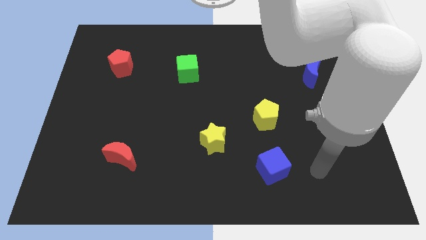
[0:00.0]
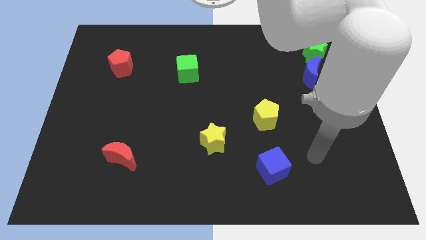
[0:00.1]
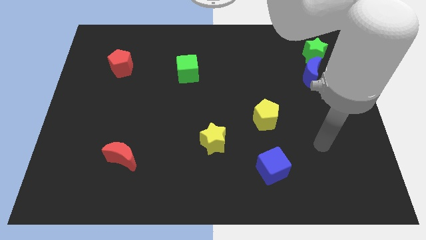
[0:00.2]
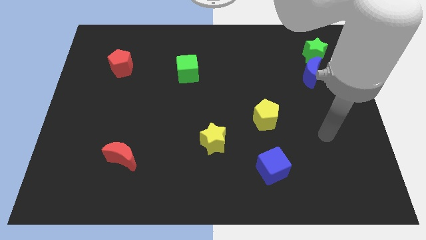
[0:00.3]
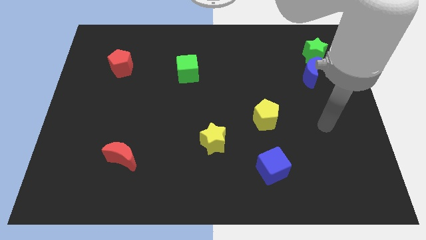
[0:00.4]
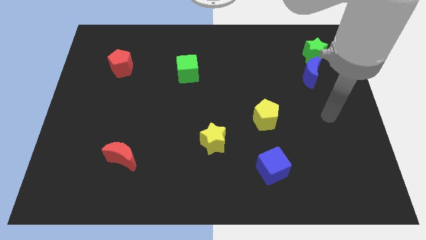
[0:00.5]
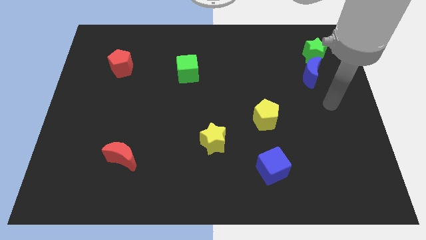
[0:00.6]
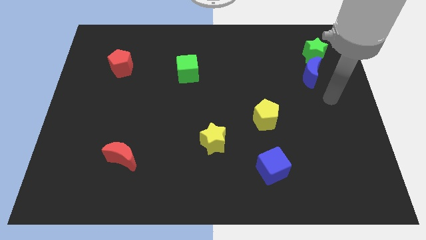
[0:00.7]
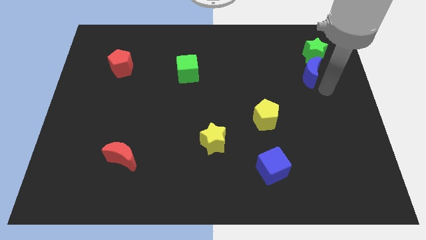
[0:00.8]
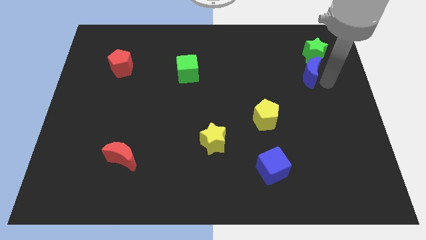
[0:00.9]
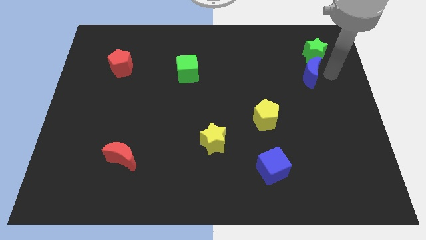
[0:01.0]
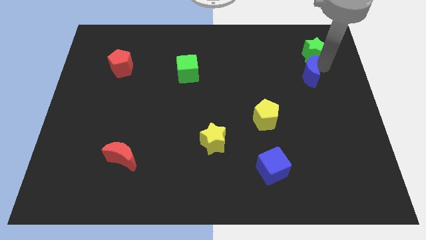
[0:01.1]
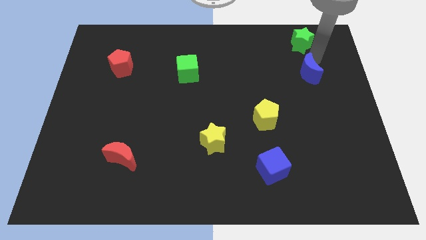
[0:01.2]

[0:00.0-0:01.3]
pull the blue moon apart from the green star

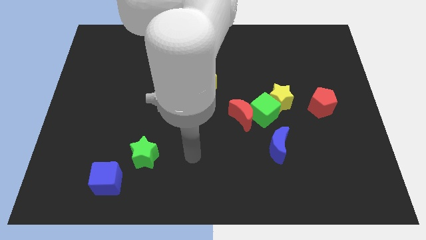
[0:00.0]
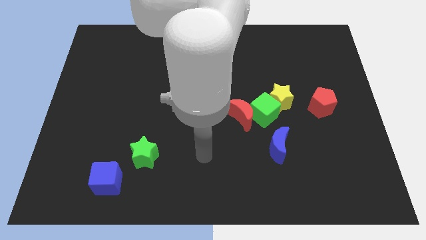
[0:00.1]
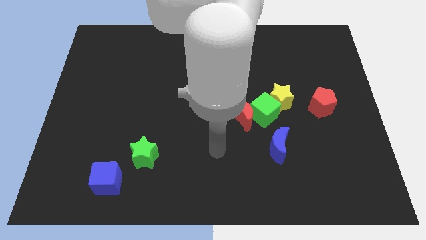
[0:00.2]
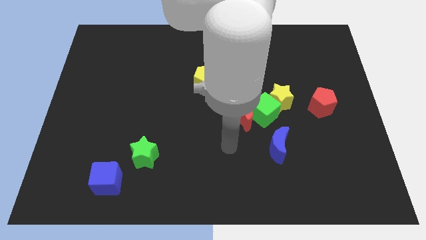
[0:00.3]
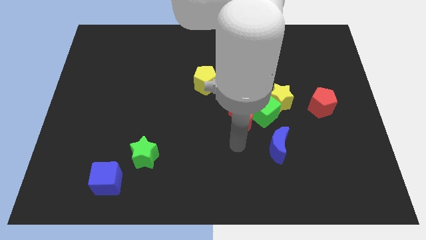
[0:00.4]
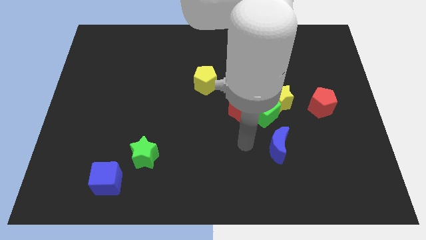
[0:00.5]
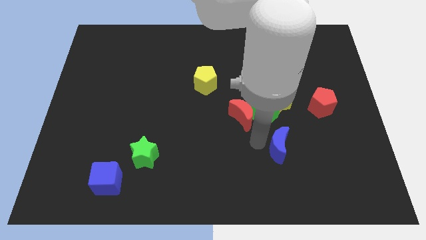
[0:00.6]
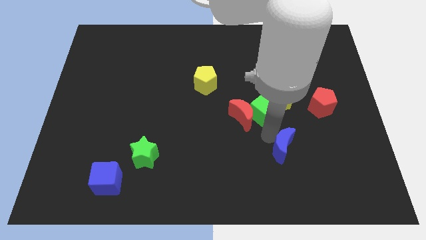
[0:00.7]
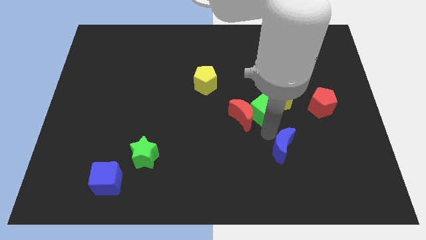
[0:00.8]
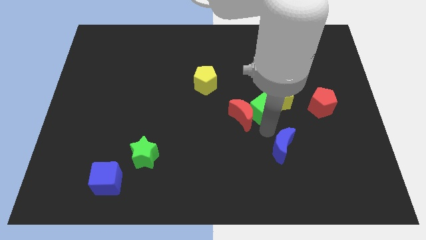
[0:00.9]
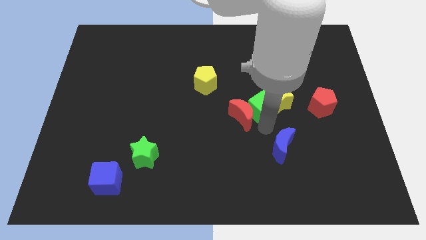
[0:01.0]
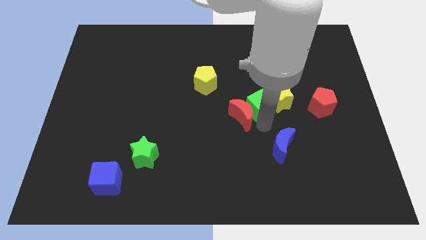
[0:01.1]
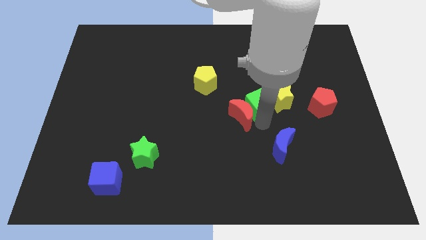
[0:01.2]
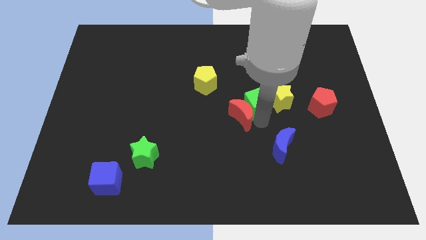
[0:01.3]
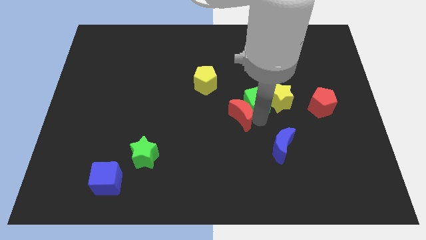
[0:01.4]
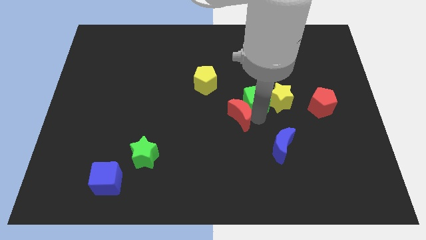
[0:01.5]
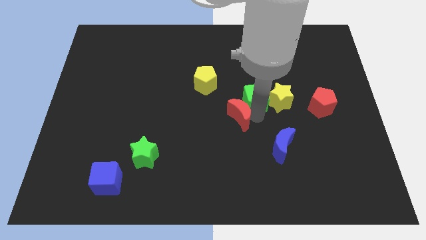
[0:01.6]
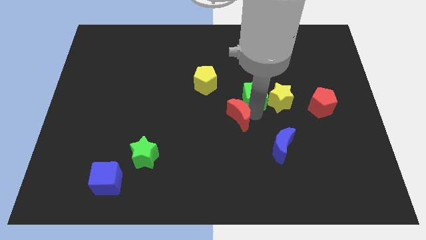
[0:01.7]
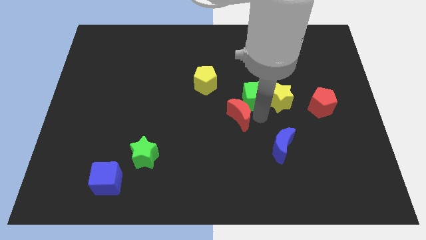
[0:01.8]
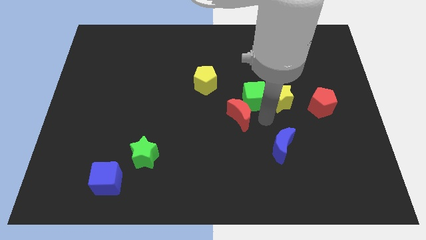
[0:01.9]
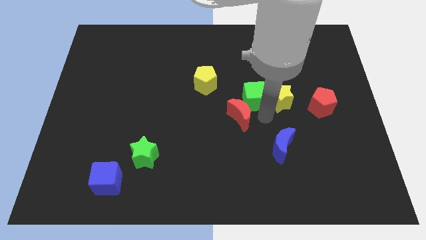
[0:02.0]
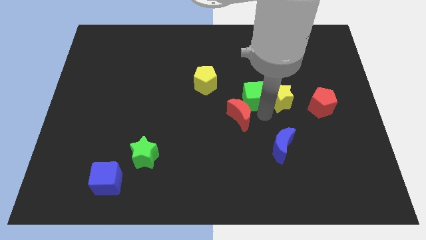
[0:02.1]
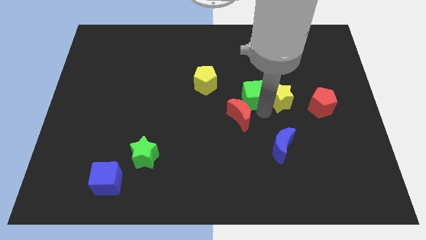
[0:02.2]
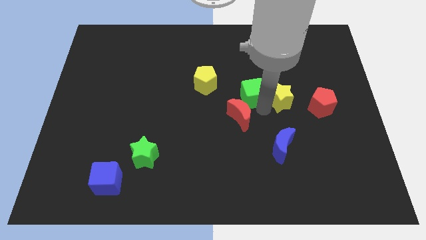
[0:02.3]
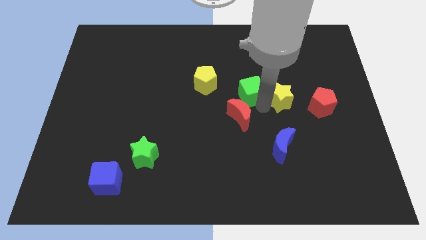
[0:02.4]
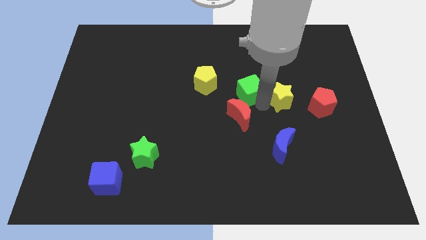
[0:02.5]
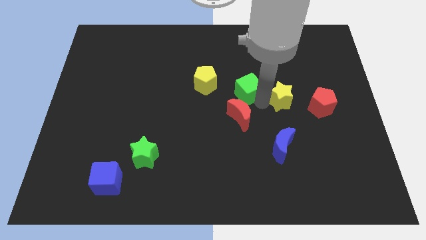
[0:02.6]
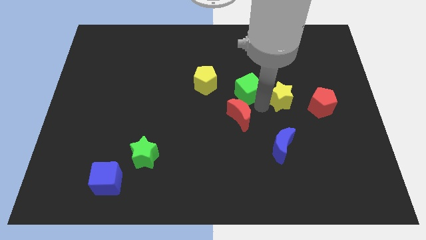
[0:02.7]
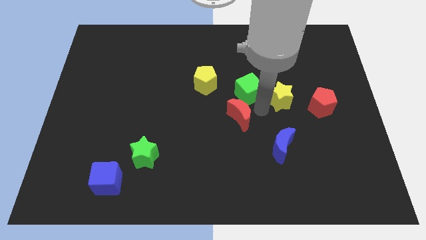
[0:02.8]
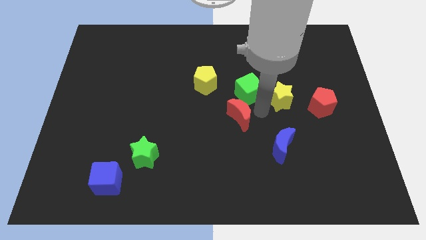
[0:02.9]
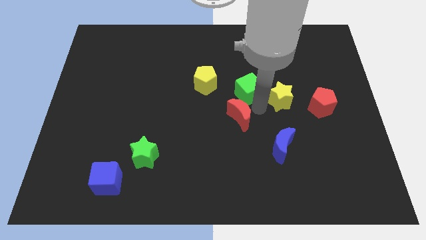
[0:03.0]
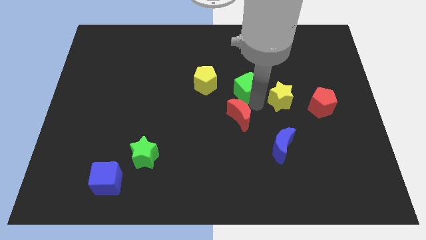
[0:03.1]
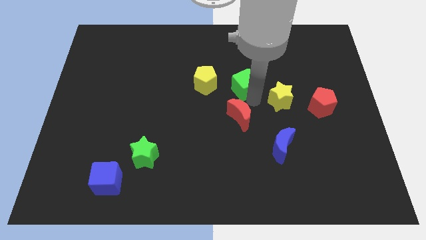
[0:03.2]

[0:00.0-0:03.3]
move the green cube away from the yellow star, red moon, and blue moon

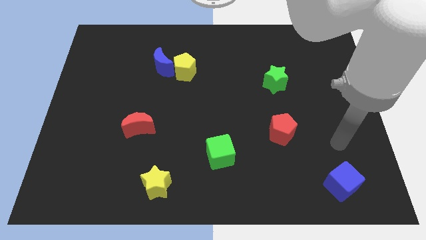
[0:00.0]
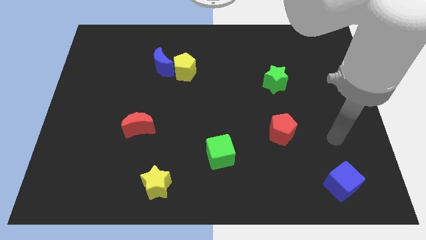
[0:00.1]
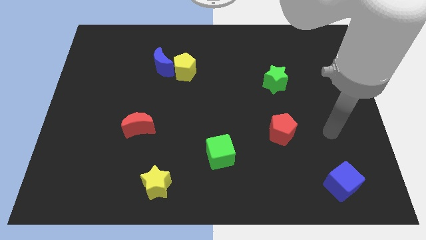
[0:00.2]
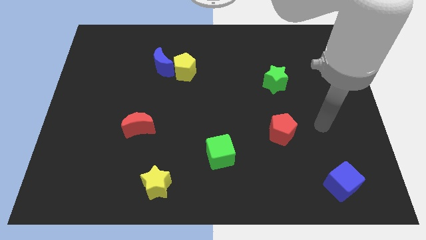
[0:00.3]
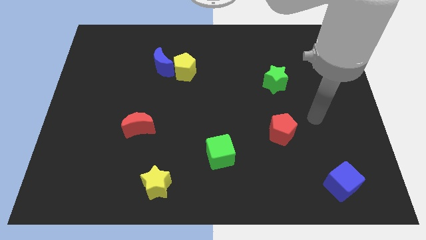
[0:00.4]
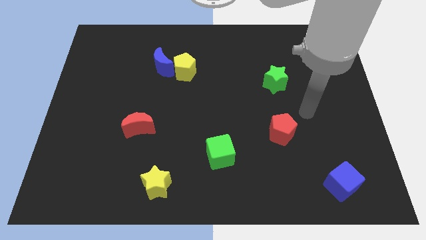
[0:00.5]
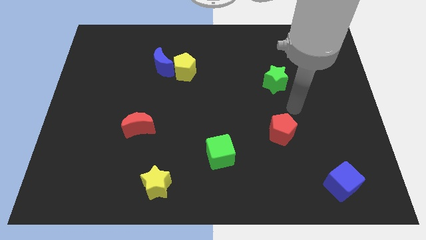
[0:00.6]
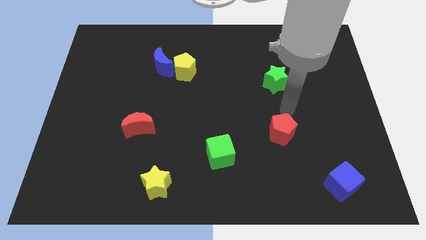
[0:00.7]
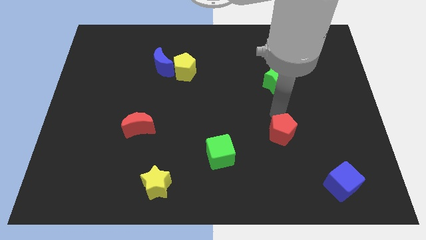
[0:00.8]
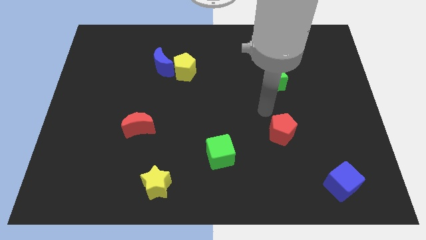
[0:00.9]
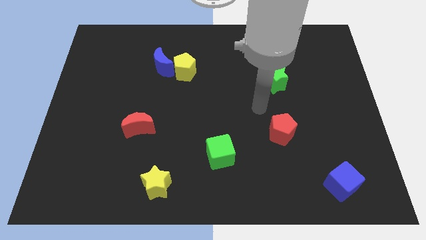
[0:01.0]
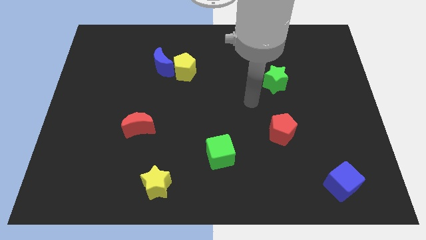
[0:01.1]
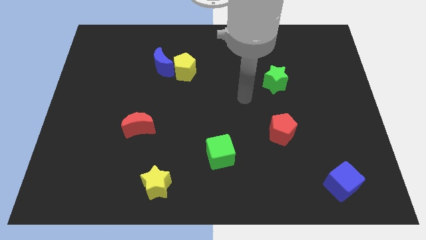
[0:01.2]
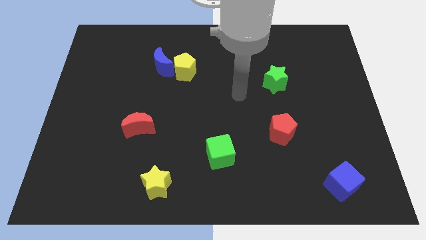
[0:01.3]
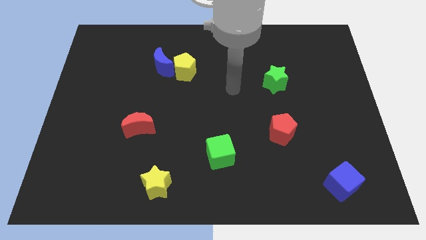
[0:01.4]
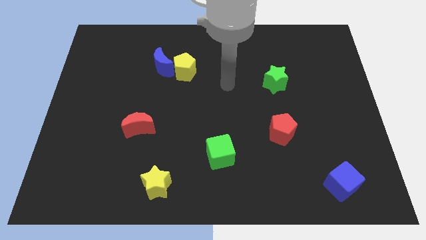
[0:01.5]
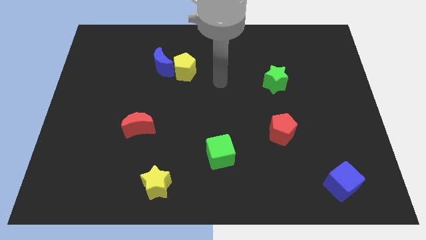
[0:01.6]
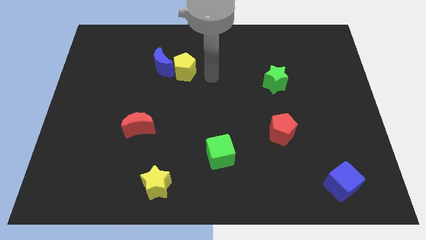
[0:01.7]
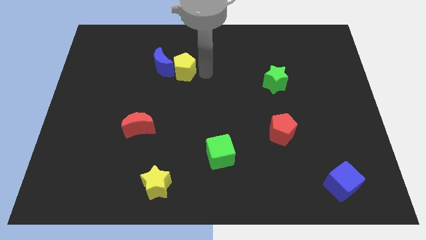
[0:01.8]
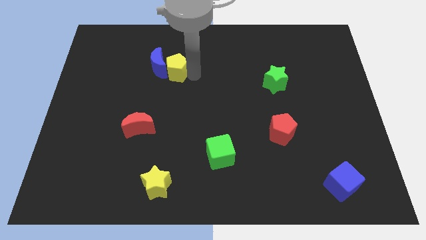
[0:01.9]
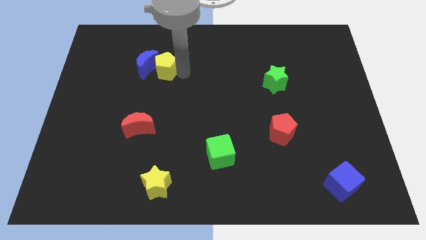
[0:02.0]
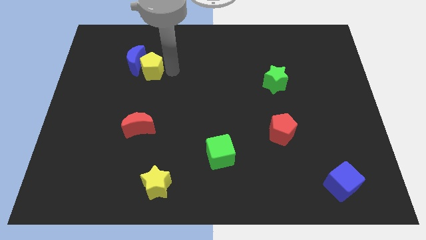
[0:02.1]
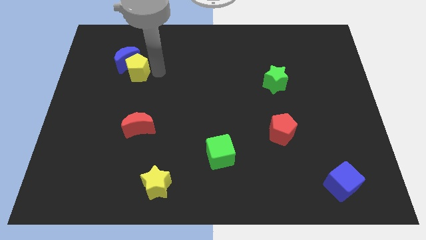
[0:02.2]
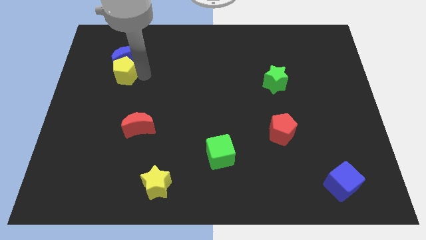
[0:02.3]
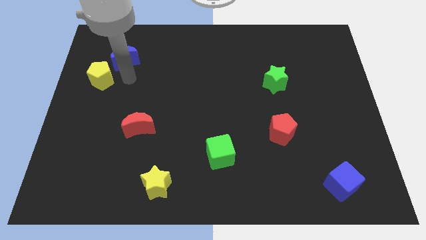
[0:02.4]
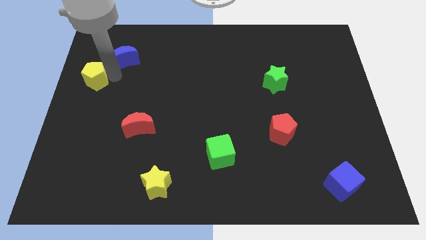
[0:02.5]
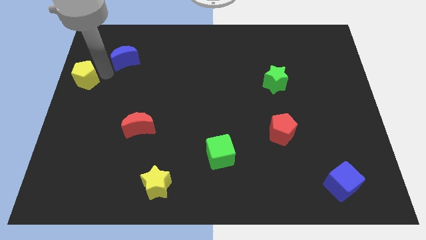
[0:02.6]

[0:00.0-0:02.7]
move the blue moon away from the yellow pentagon

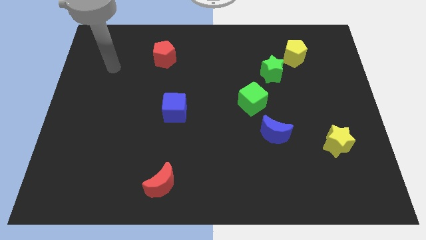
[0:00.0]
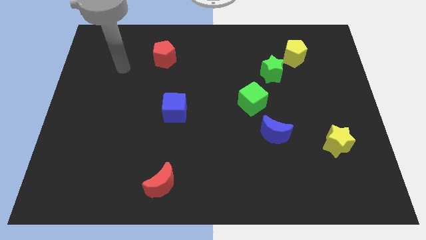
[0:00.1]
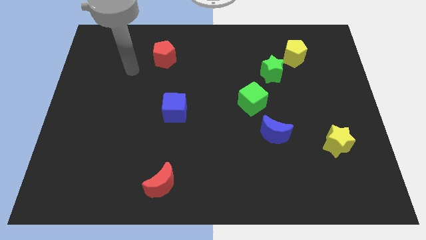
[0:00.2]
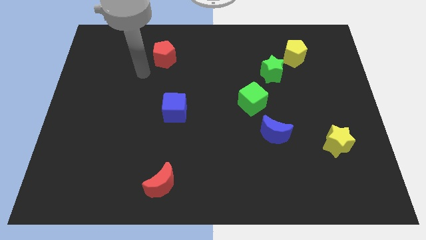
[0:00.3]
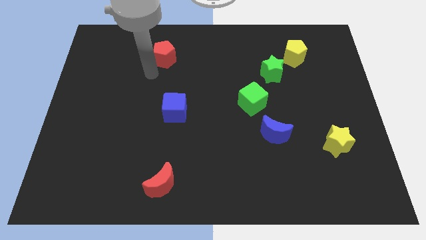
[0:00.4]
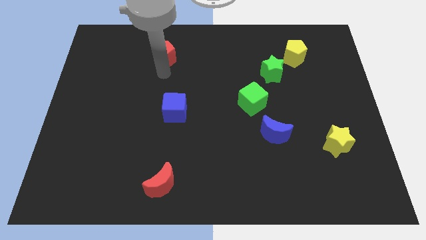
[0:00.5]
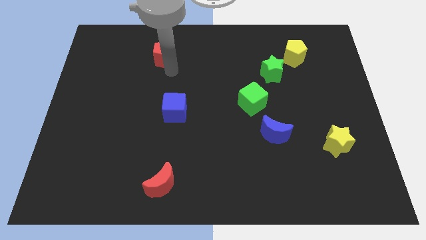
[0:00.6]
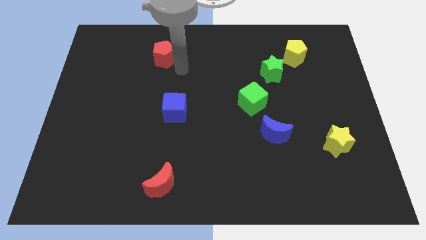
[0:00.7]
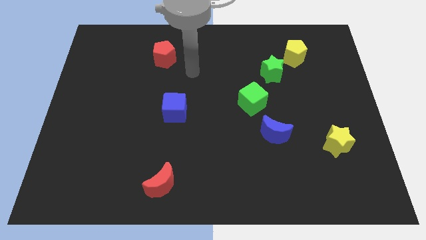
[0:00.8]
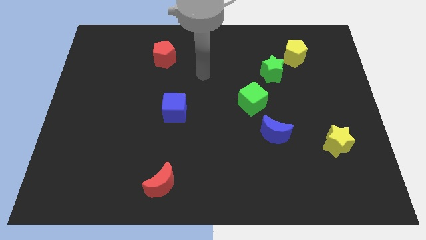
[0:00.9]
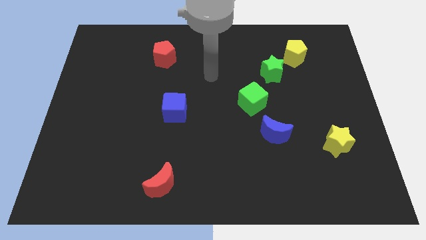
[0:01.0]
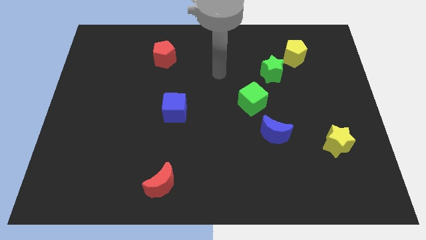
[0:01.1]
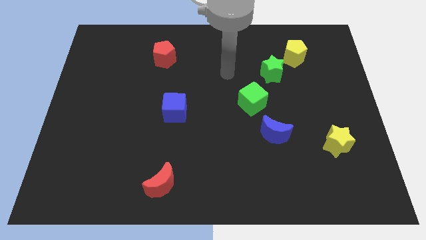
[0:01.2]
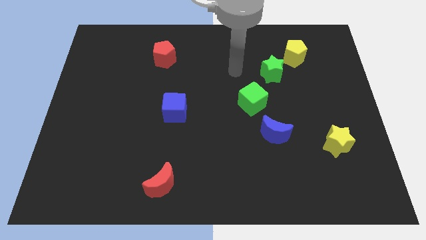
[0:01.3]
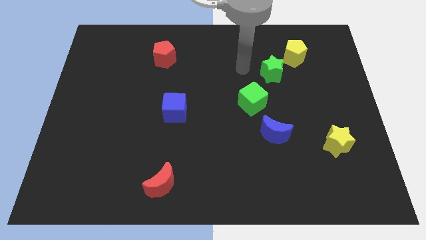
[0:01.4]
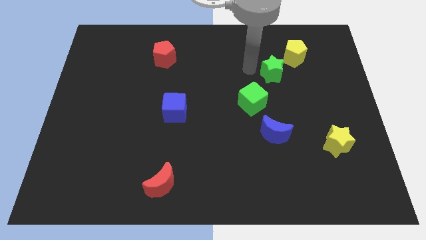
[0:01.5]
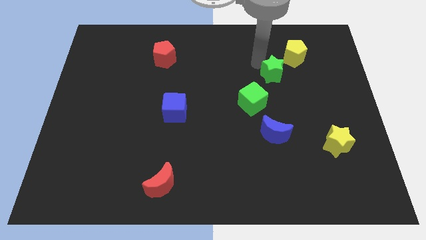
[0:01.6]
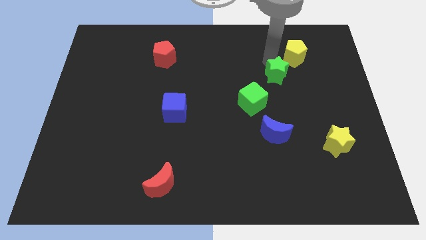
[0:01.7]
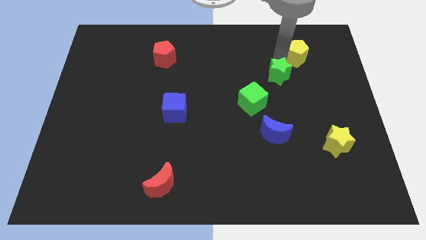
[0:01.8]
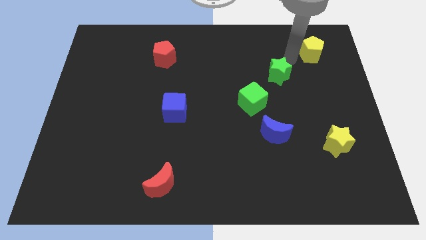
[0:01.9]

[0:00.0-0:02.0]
separate the green star from the yellow pentagon

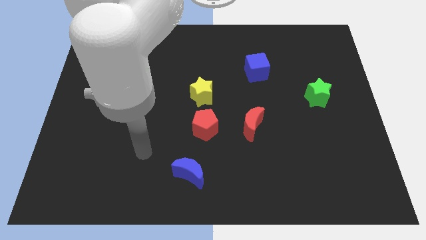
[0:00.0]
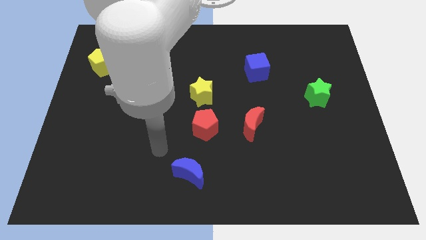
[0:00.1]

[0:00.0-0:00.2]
move the yellow star away from the red pentagon
